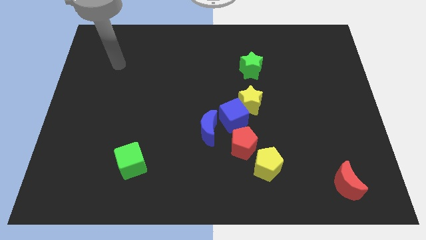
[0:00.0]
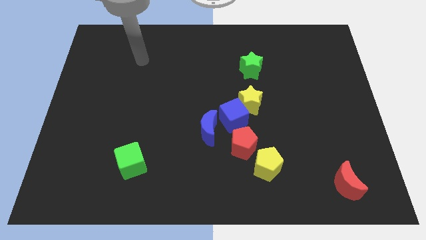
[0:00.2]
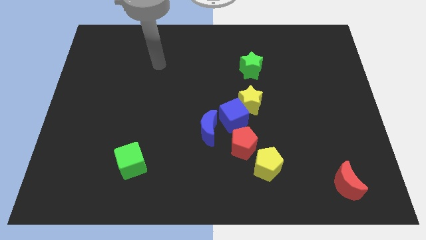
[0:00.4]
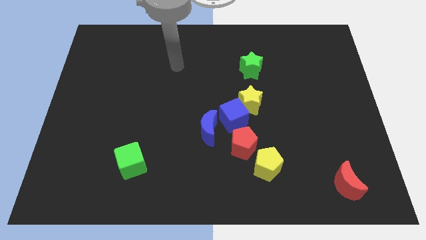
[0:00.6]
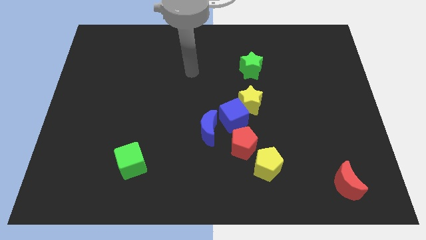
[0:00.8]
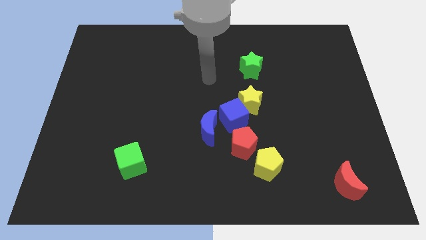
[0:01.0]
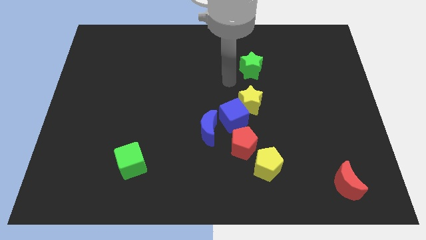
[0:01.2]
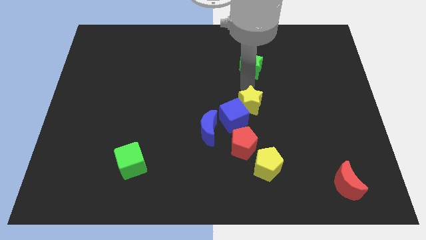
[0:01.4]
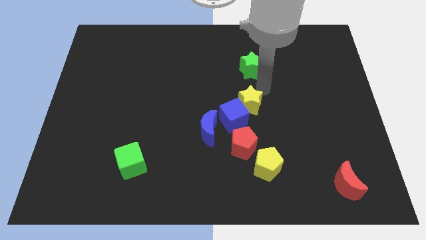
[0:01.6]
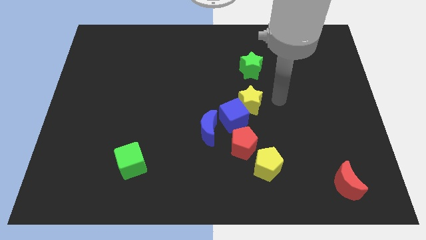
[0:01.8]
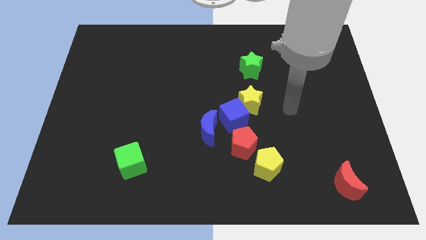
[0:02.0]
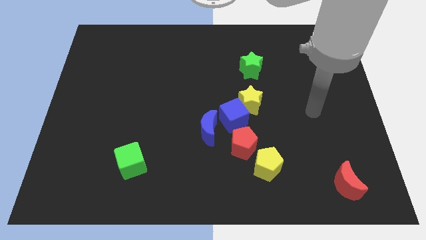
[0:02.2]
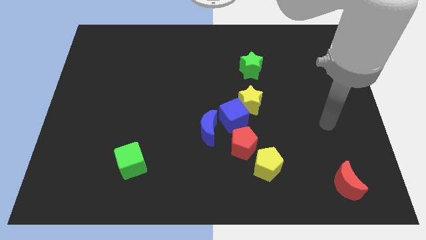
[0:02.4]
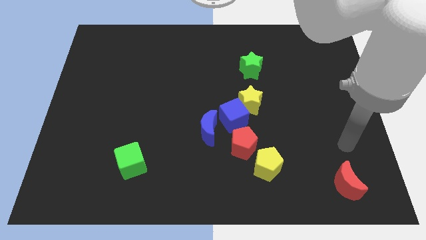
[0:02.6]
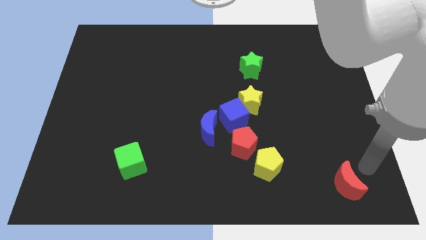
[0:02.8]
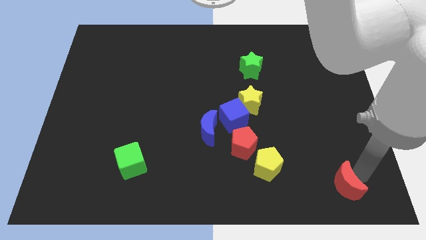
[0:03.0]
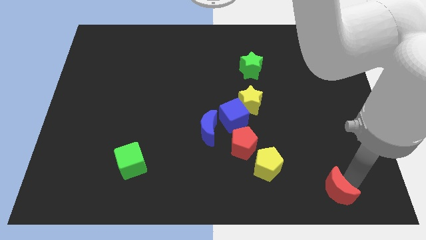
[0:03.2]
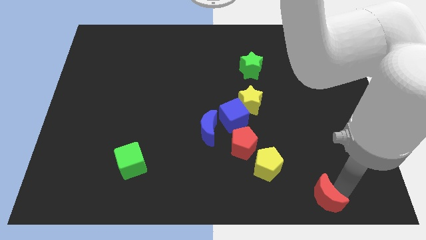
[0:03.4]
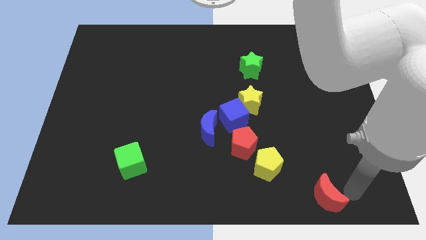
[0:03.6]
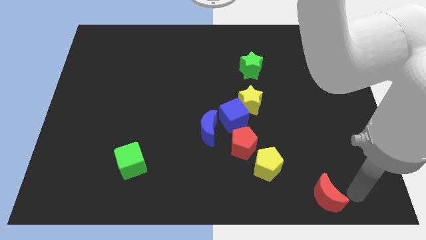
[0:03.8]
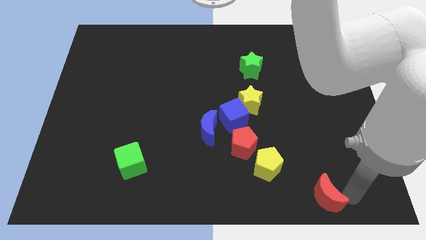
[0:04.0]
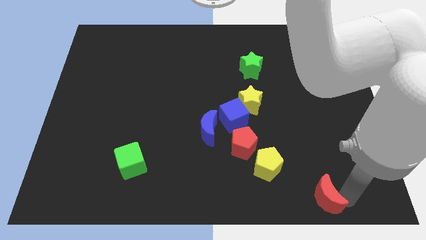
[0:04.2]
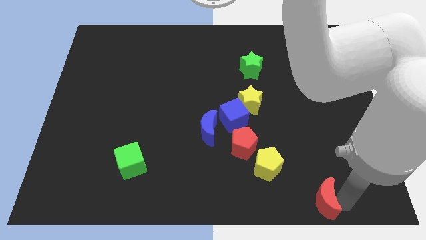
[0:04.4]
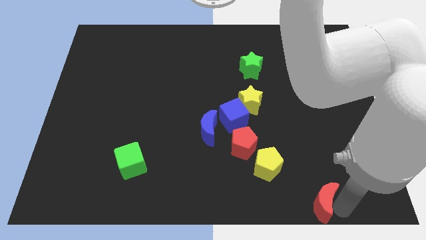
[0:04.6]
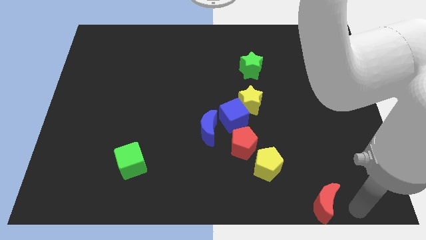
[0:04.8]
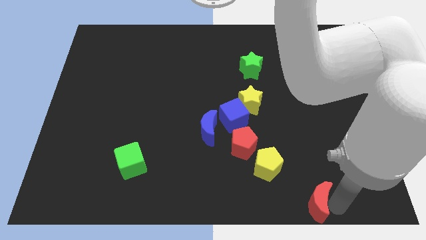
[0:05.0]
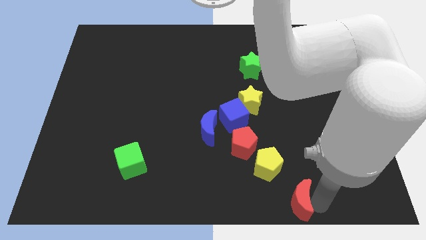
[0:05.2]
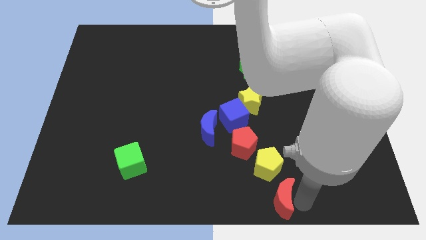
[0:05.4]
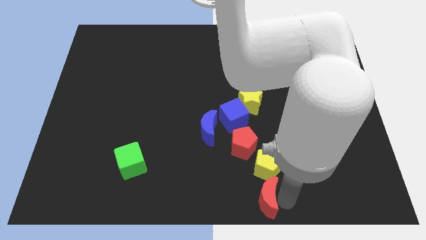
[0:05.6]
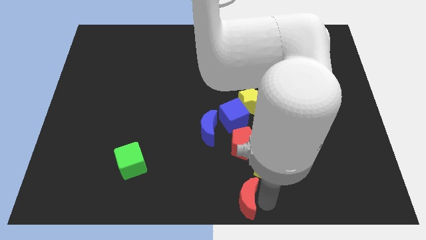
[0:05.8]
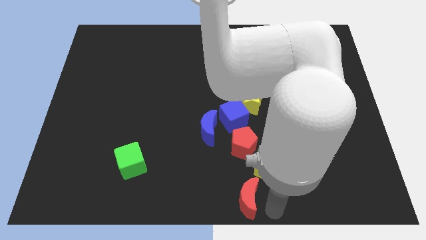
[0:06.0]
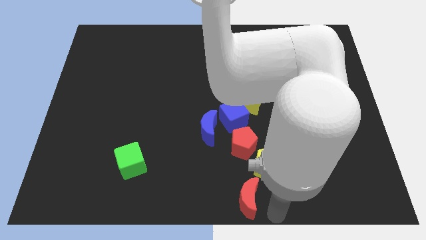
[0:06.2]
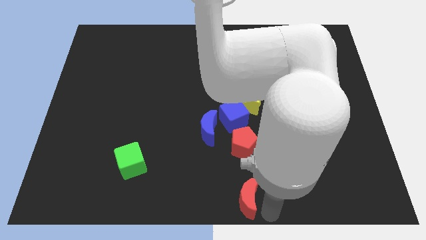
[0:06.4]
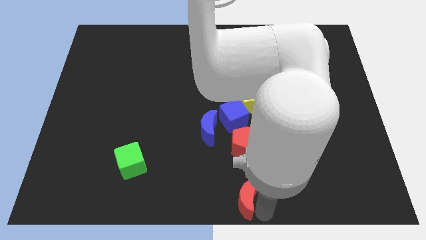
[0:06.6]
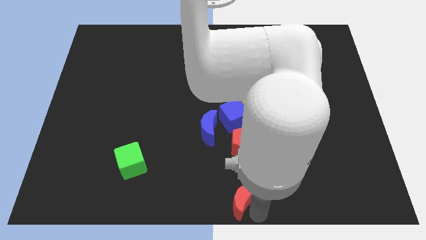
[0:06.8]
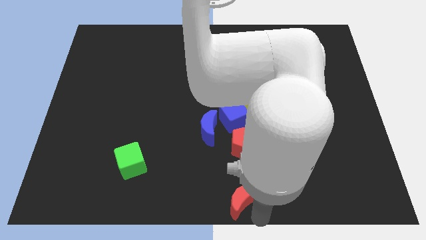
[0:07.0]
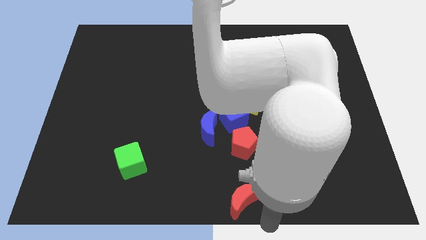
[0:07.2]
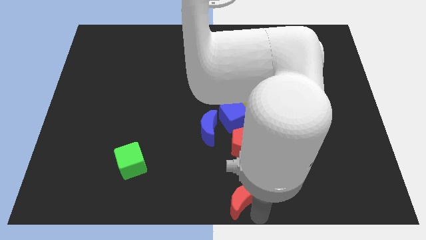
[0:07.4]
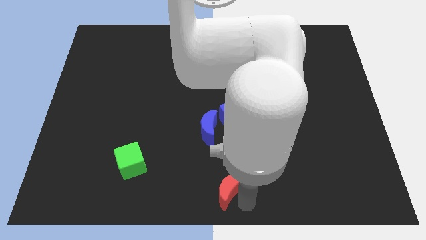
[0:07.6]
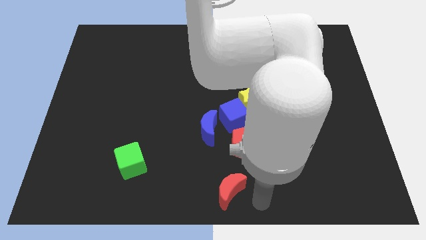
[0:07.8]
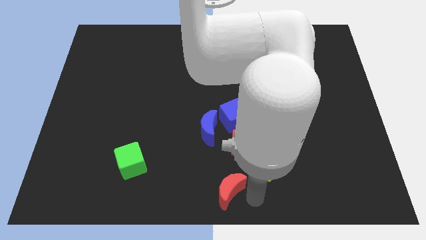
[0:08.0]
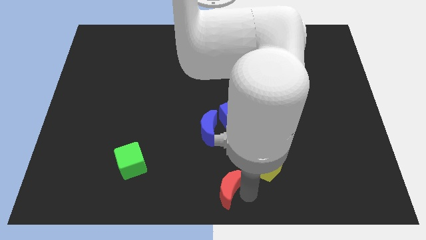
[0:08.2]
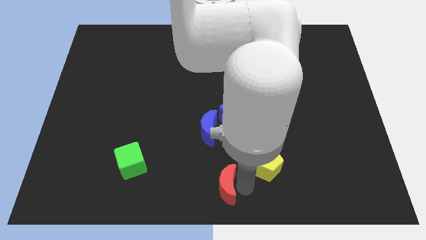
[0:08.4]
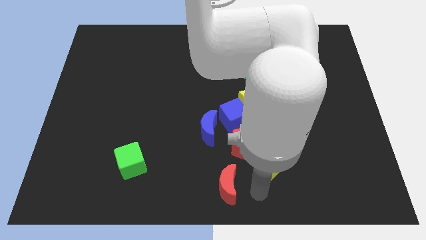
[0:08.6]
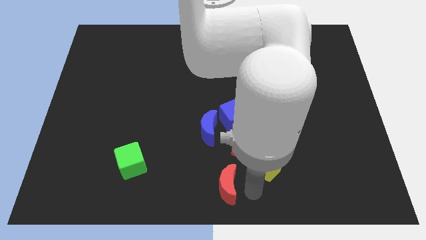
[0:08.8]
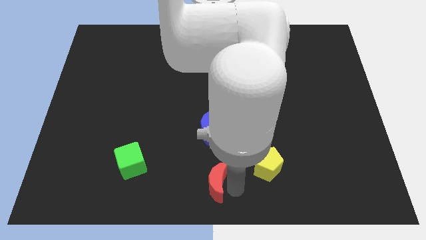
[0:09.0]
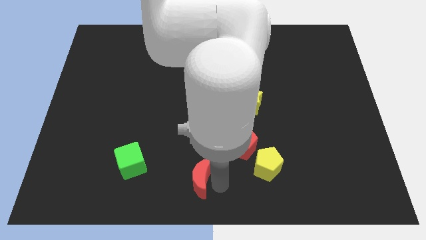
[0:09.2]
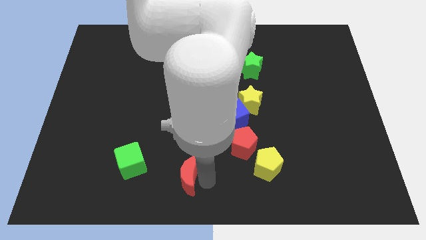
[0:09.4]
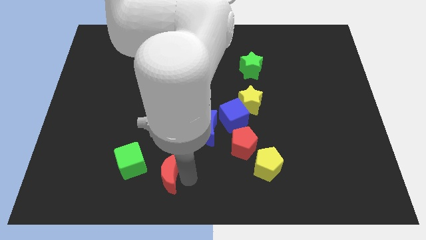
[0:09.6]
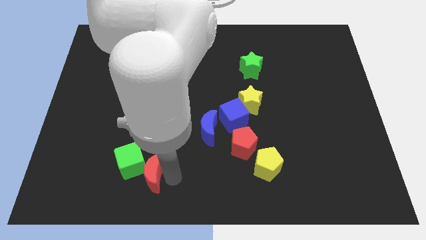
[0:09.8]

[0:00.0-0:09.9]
put the red moon next to the green cube

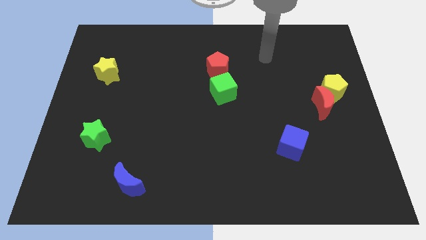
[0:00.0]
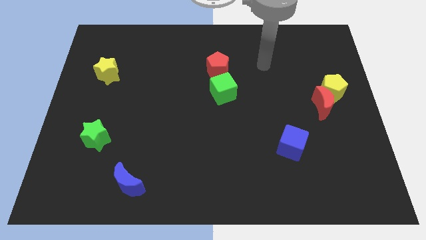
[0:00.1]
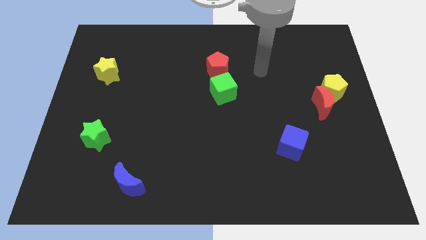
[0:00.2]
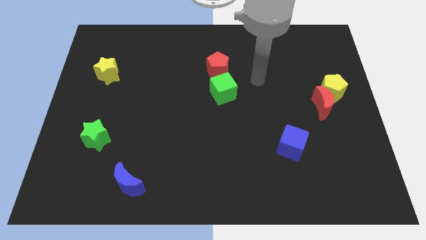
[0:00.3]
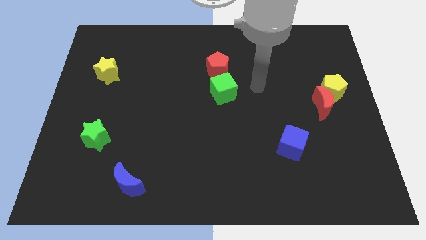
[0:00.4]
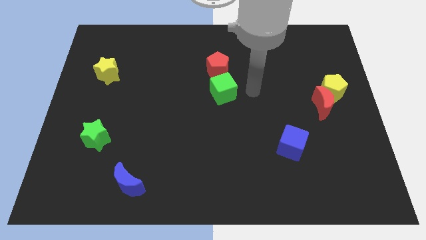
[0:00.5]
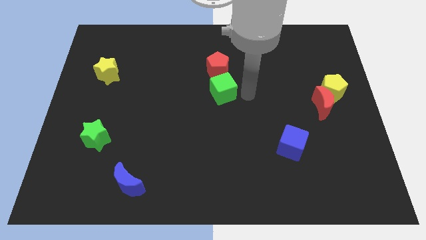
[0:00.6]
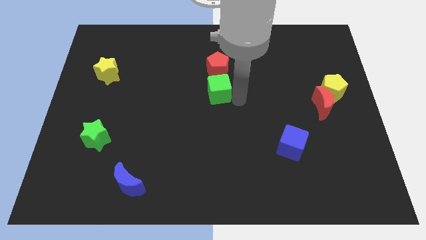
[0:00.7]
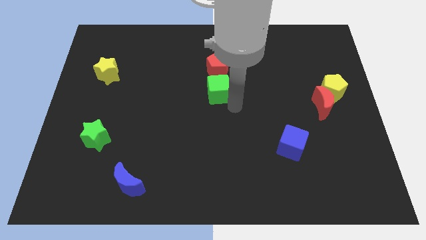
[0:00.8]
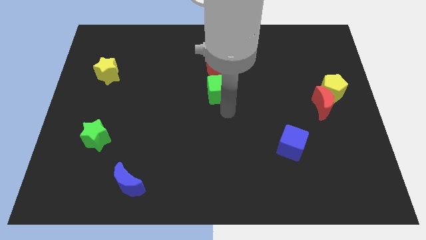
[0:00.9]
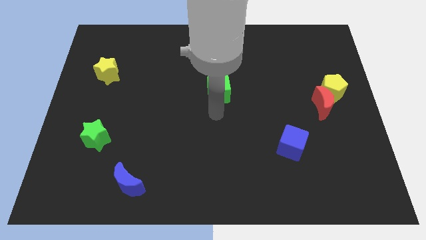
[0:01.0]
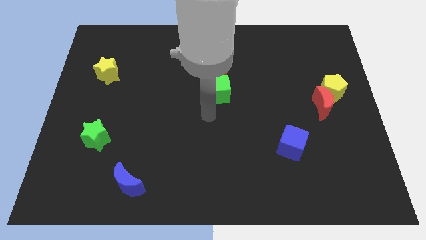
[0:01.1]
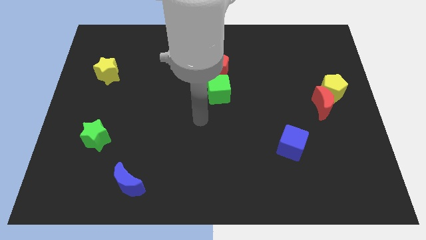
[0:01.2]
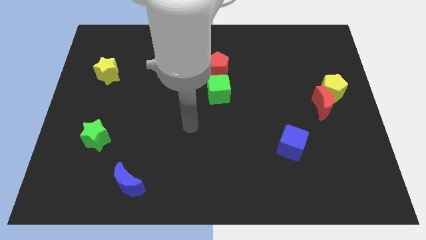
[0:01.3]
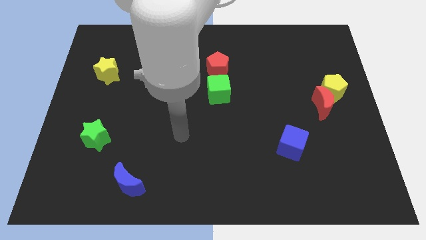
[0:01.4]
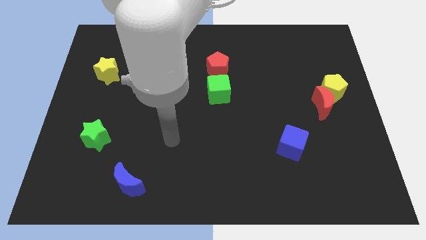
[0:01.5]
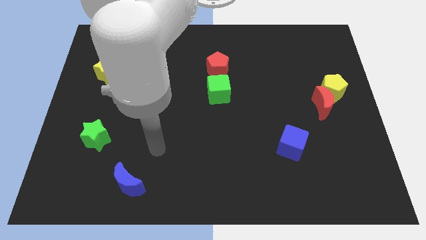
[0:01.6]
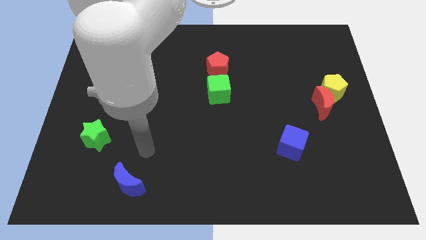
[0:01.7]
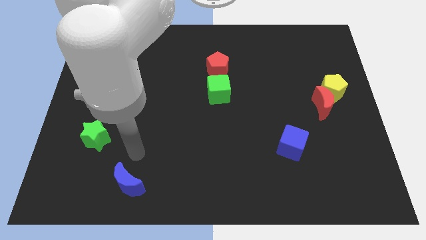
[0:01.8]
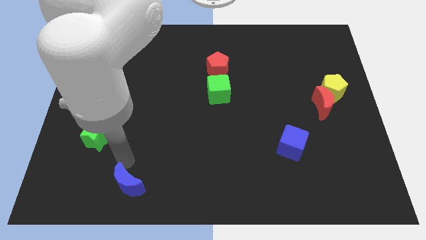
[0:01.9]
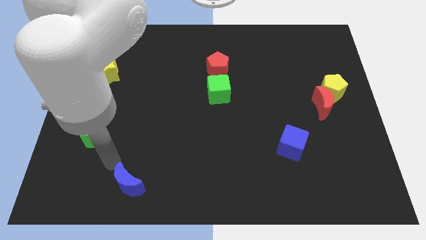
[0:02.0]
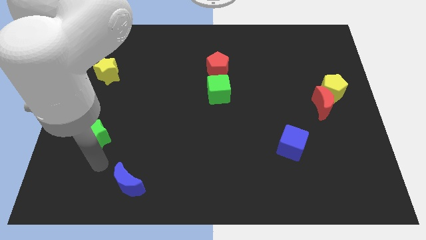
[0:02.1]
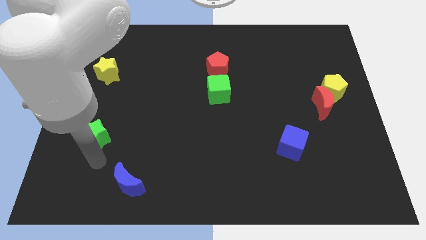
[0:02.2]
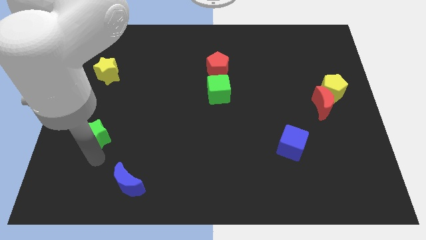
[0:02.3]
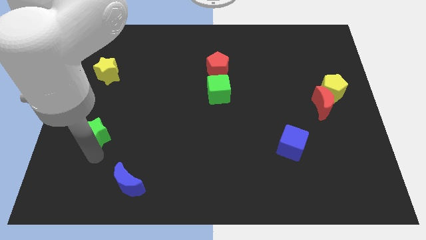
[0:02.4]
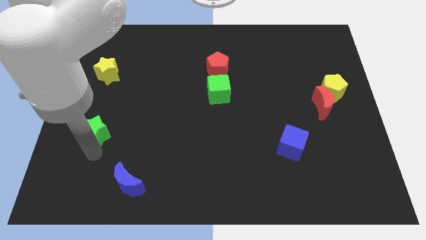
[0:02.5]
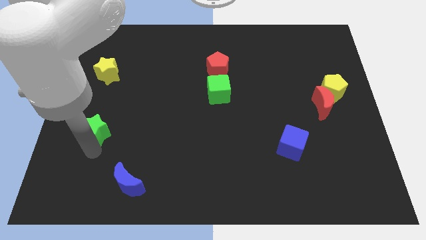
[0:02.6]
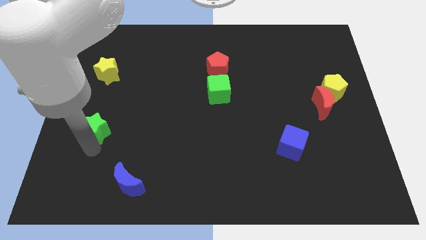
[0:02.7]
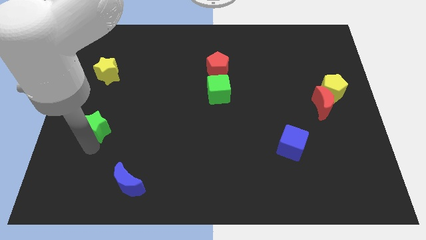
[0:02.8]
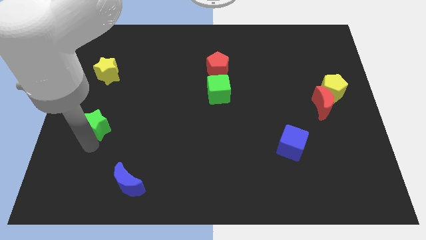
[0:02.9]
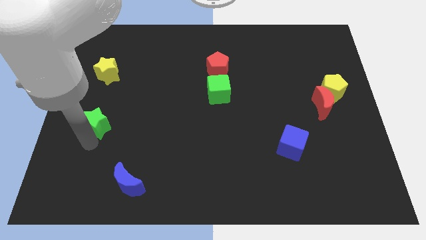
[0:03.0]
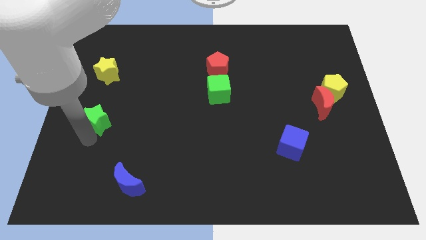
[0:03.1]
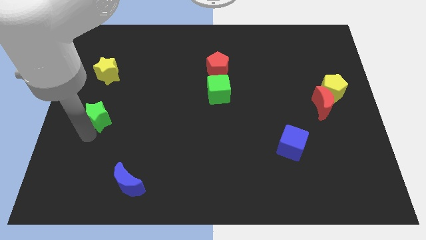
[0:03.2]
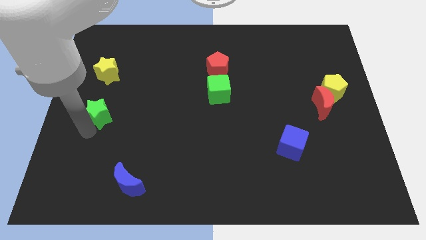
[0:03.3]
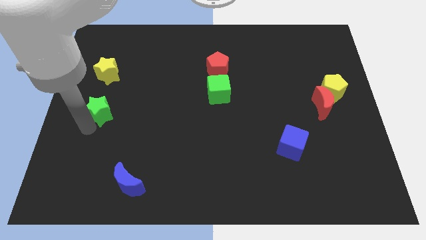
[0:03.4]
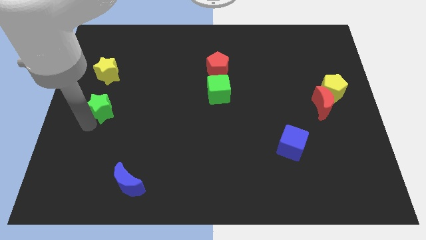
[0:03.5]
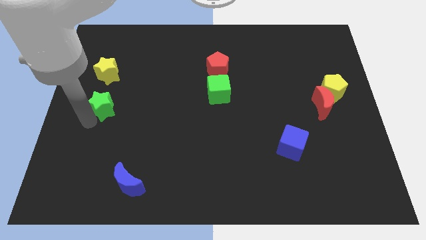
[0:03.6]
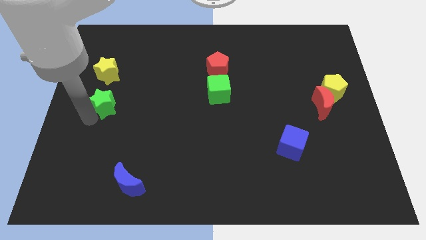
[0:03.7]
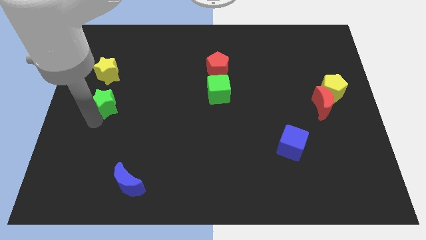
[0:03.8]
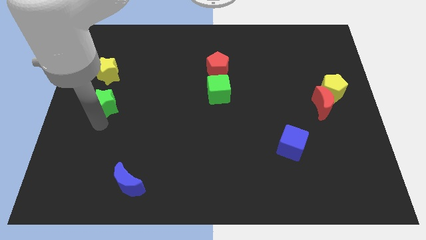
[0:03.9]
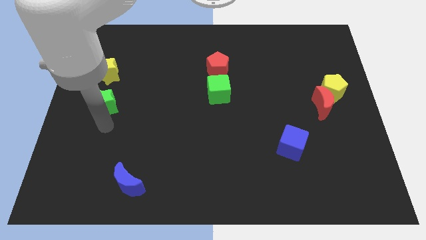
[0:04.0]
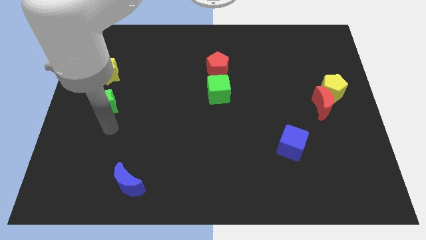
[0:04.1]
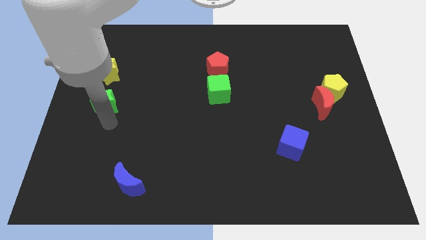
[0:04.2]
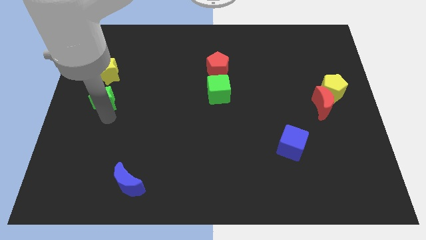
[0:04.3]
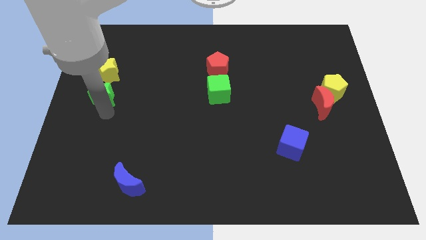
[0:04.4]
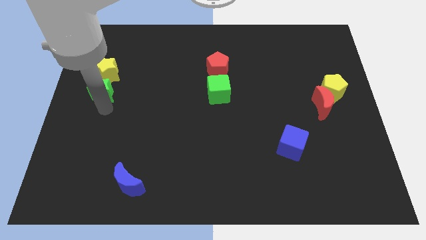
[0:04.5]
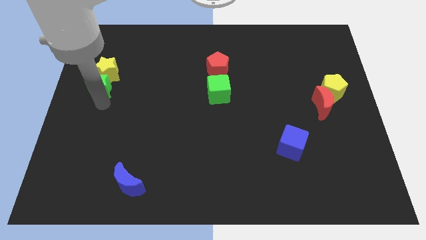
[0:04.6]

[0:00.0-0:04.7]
slide the green star towards the yellow star
